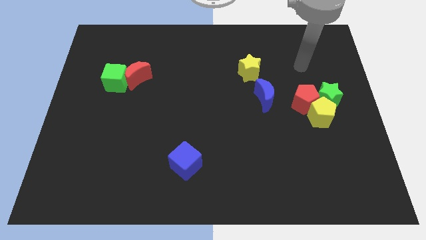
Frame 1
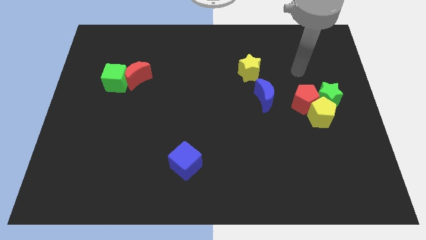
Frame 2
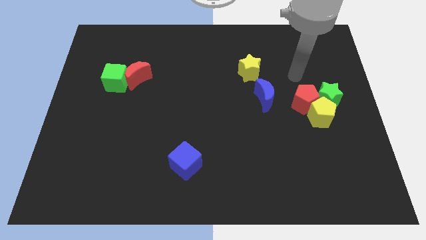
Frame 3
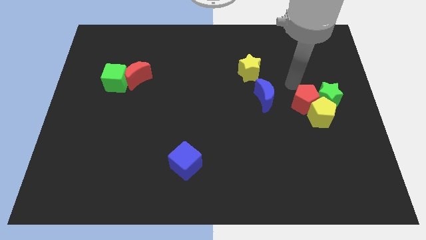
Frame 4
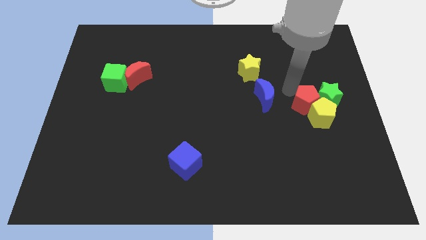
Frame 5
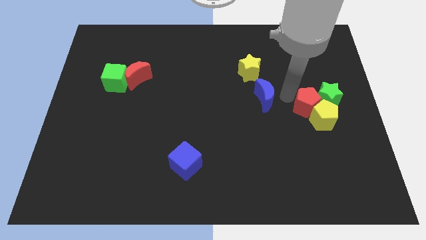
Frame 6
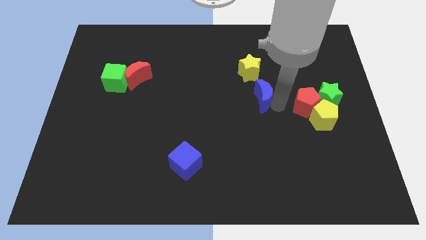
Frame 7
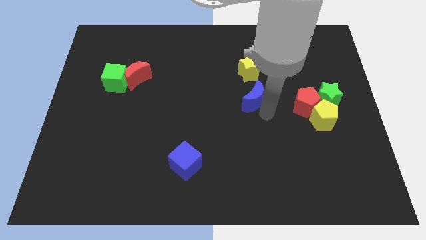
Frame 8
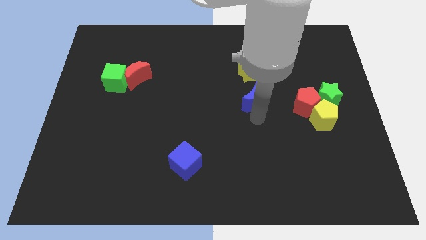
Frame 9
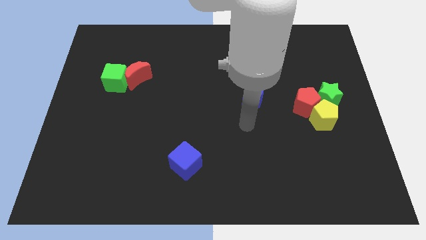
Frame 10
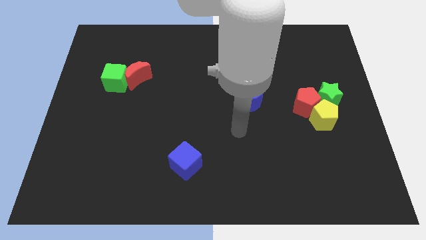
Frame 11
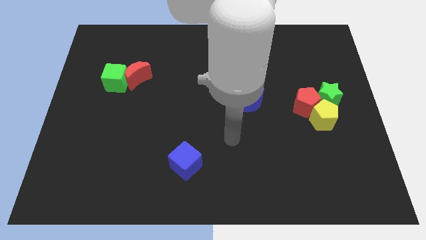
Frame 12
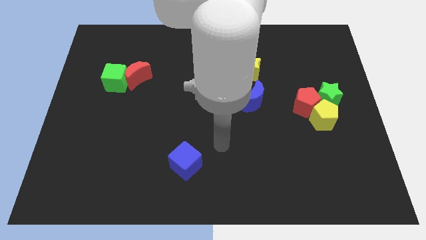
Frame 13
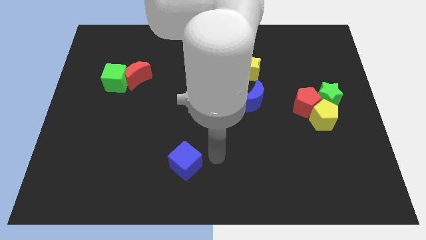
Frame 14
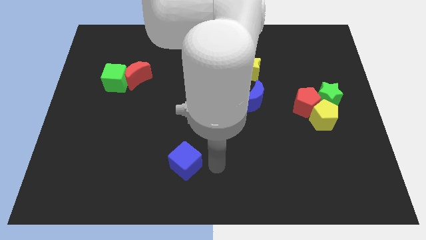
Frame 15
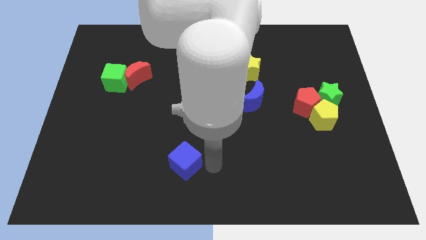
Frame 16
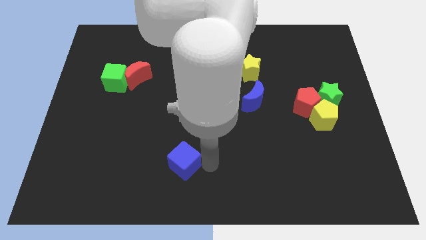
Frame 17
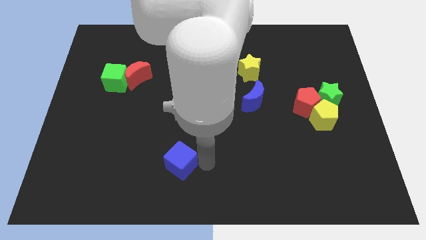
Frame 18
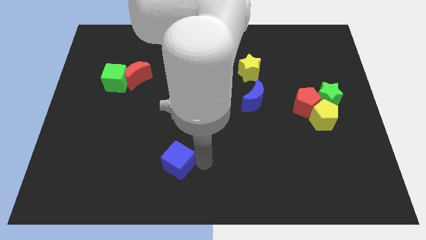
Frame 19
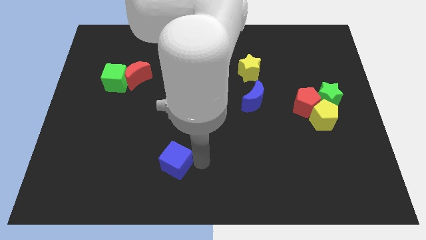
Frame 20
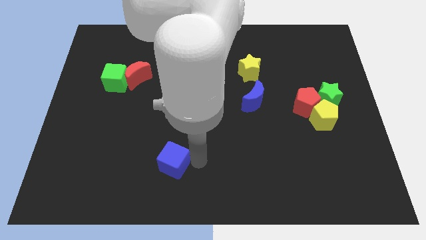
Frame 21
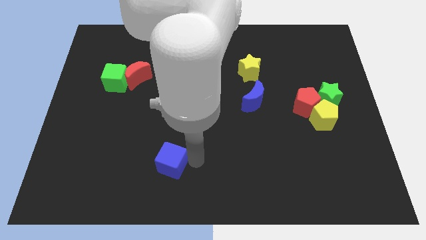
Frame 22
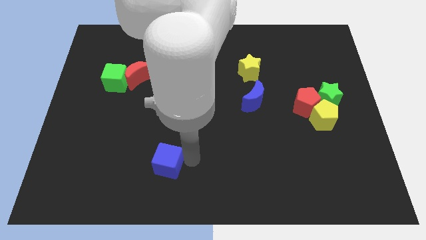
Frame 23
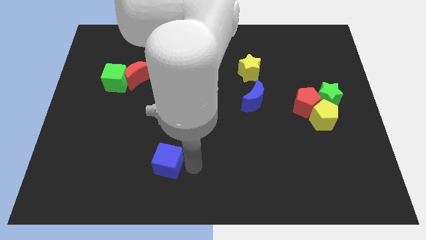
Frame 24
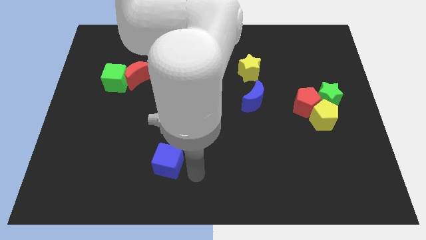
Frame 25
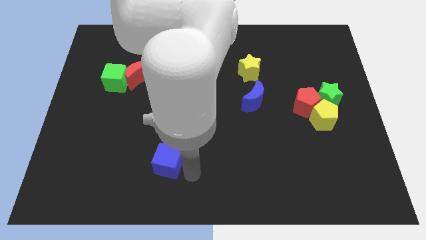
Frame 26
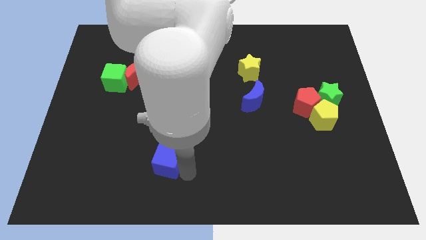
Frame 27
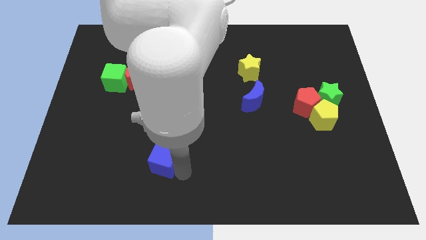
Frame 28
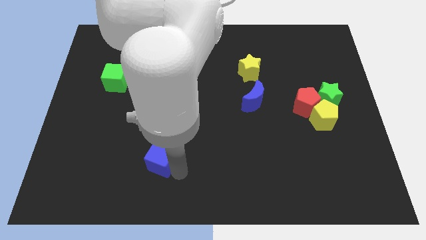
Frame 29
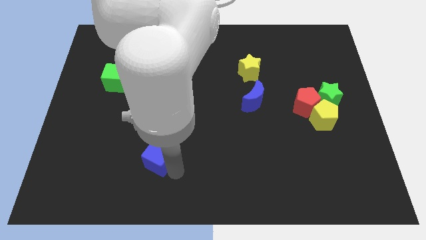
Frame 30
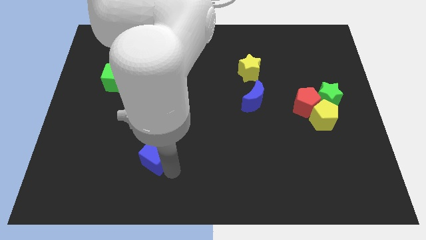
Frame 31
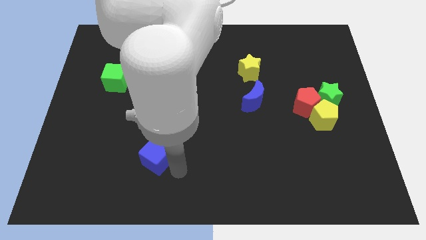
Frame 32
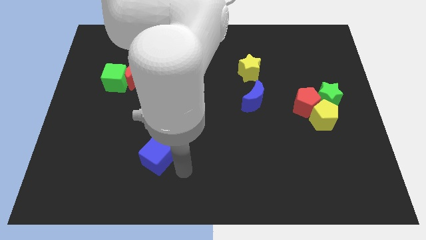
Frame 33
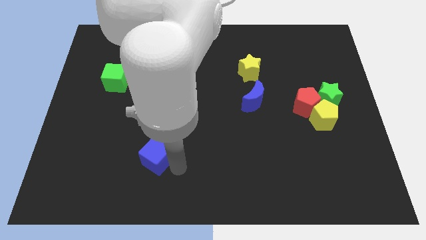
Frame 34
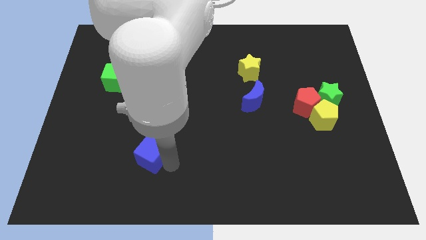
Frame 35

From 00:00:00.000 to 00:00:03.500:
slide the blue cube somewhat to the left

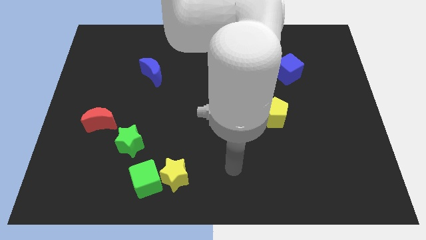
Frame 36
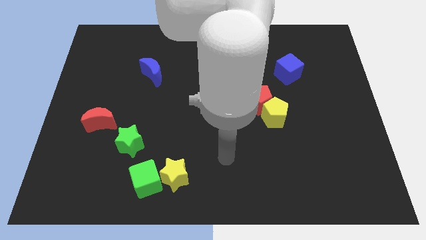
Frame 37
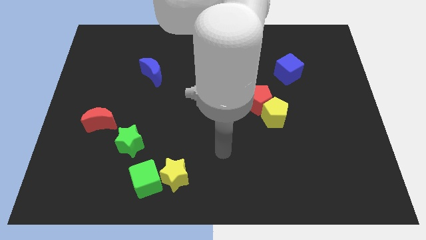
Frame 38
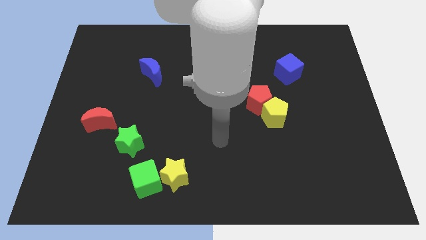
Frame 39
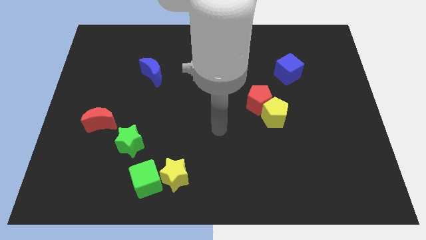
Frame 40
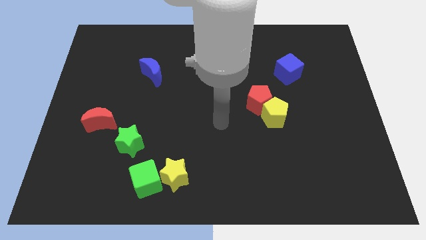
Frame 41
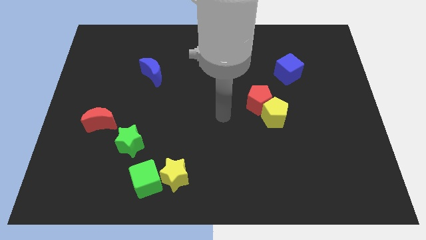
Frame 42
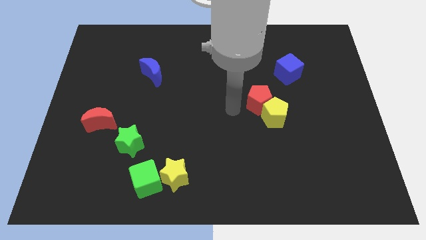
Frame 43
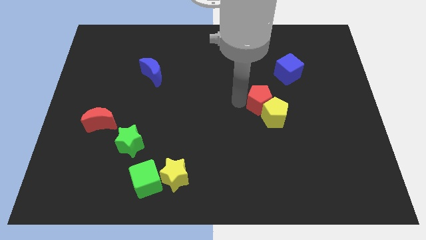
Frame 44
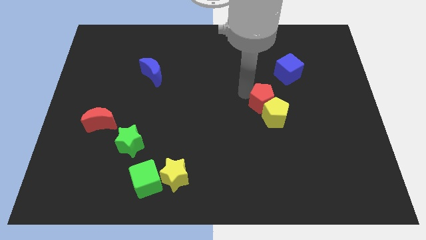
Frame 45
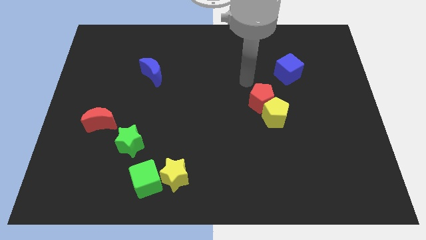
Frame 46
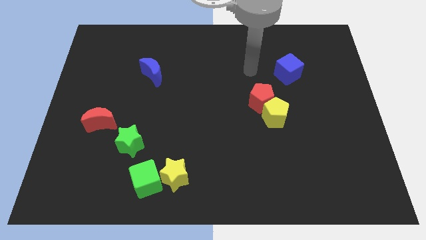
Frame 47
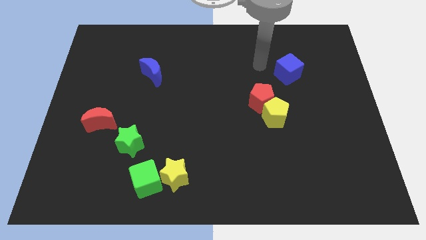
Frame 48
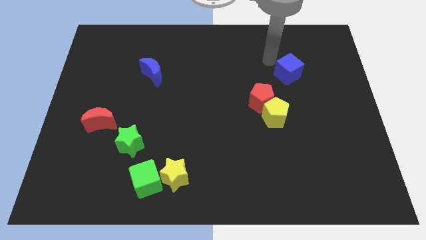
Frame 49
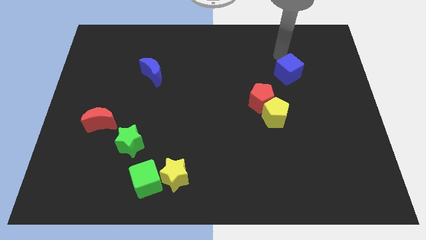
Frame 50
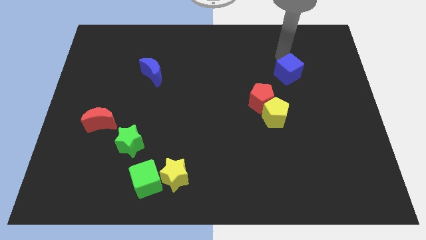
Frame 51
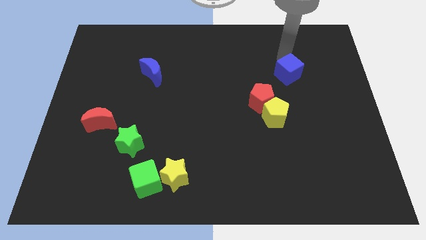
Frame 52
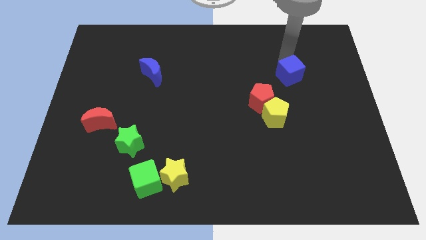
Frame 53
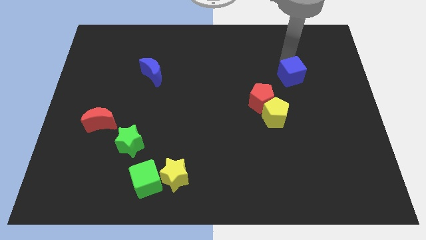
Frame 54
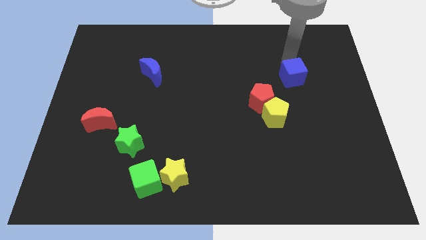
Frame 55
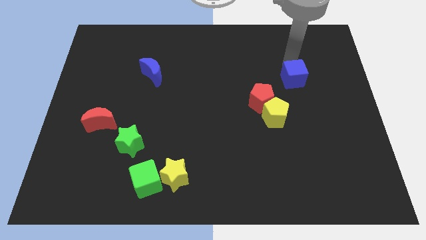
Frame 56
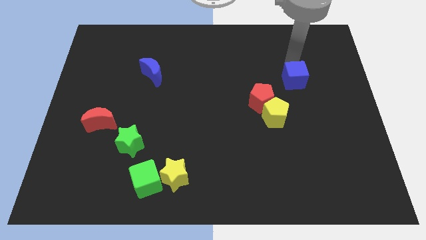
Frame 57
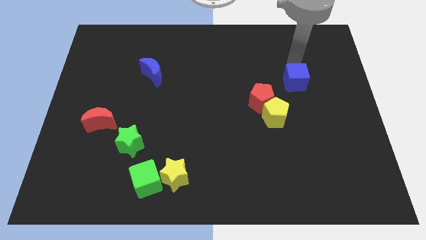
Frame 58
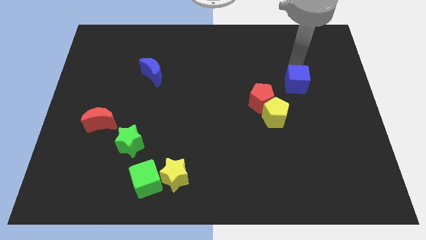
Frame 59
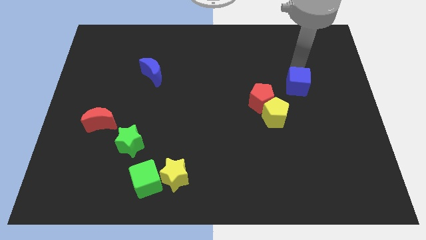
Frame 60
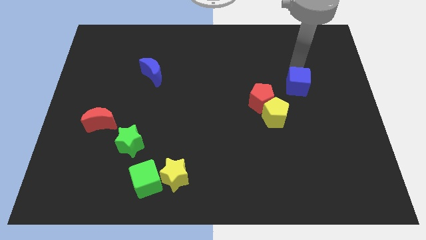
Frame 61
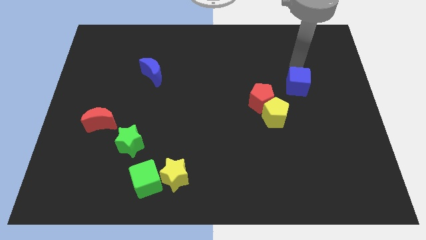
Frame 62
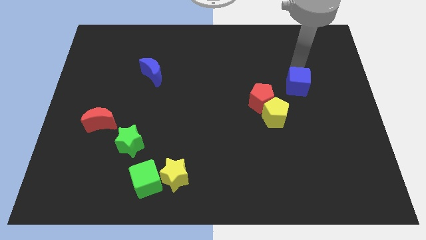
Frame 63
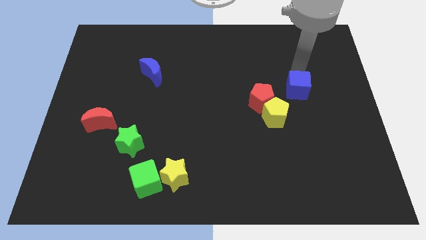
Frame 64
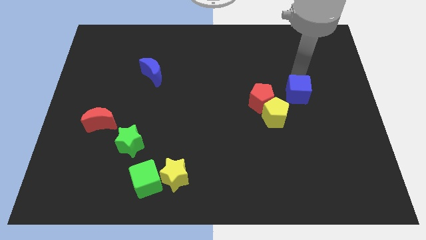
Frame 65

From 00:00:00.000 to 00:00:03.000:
slightly slide the blue cube down

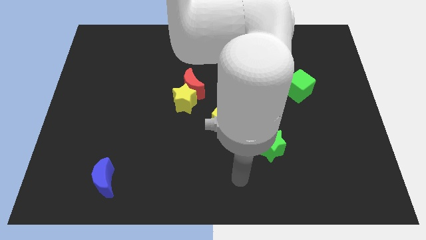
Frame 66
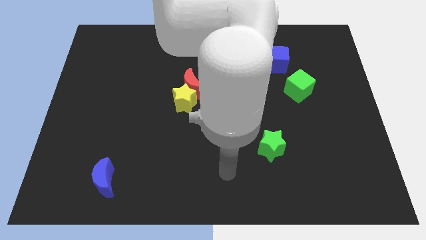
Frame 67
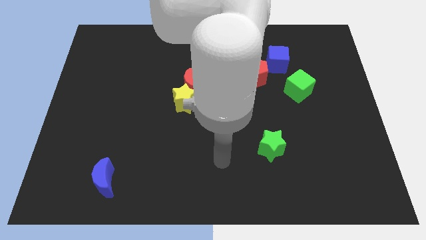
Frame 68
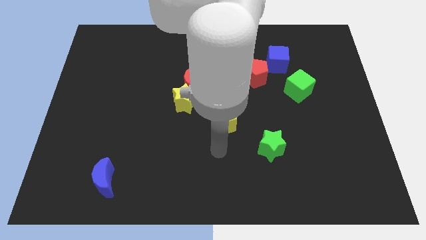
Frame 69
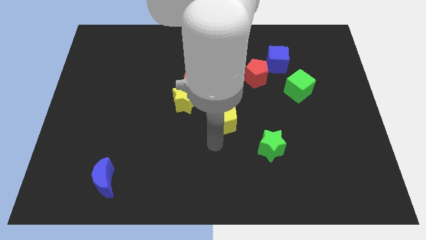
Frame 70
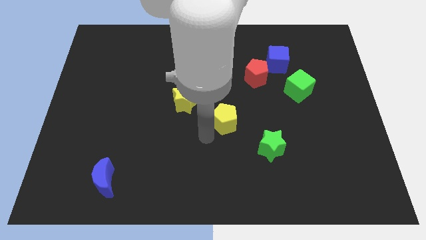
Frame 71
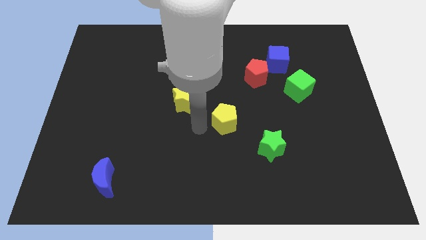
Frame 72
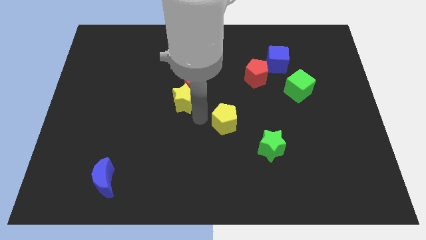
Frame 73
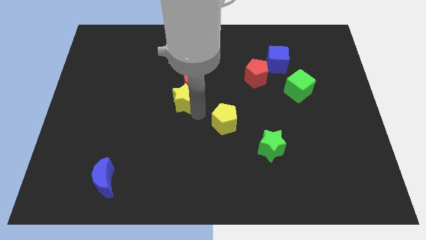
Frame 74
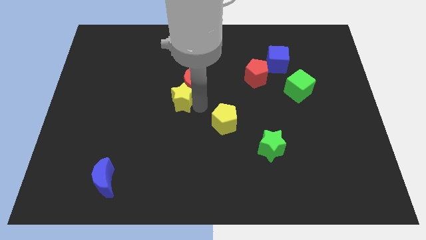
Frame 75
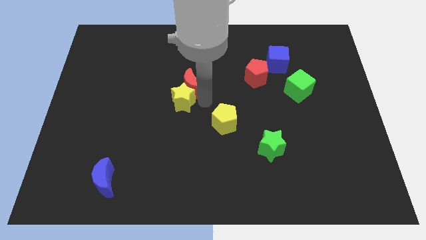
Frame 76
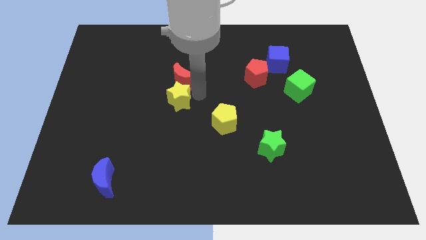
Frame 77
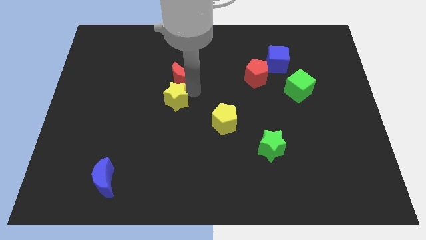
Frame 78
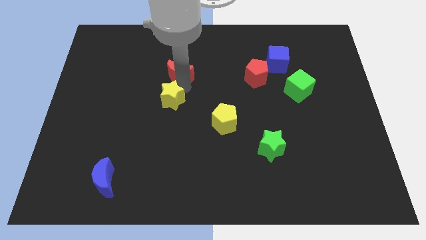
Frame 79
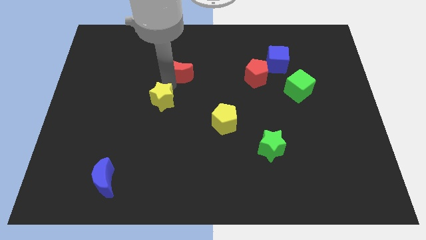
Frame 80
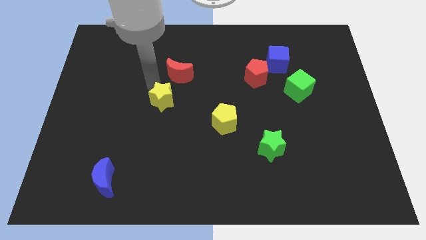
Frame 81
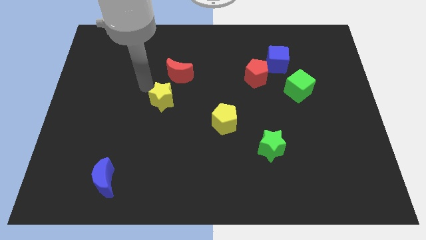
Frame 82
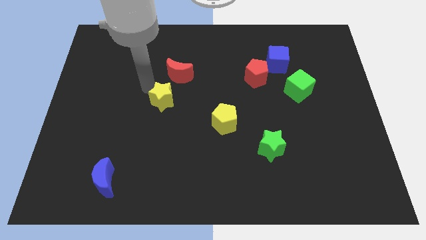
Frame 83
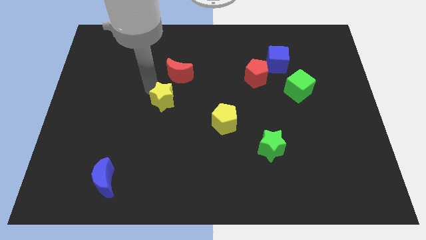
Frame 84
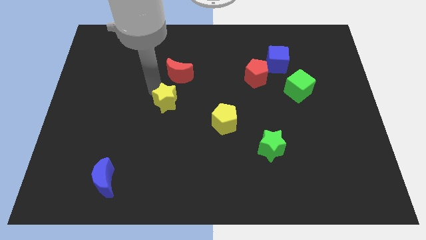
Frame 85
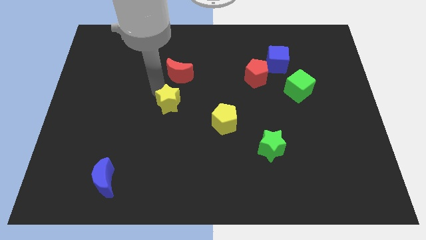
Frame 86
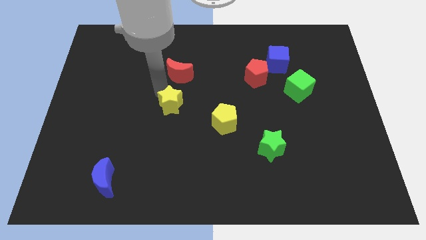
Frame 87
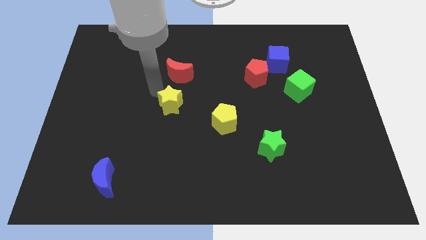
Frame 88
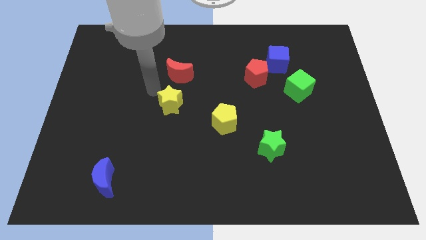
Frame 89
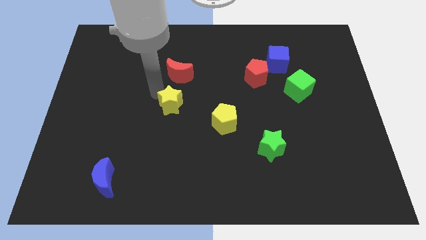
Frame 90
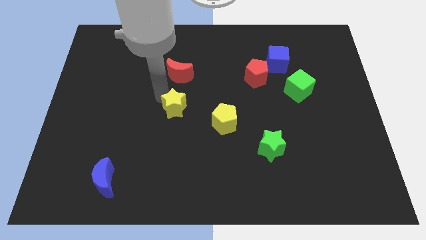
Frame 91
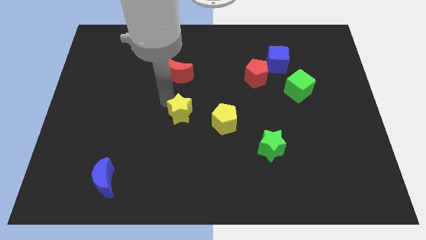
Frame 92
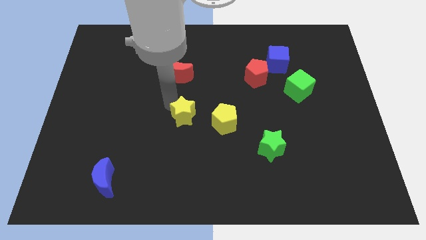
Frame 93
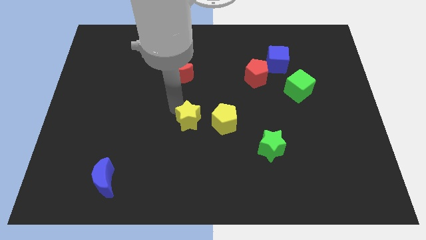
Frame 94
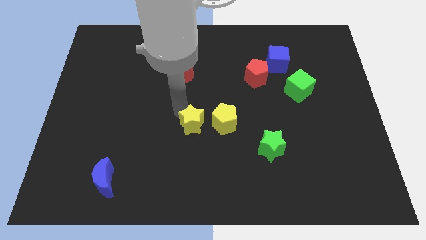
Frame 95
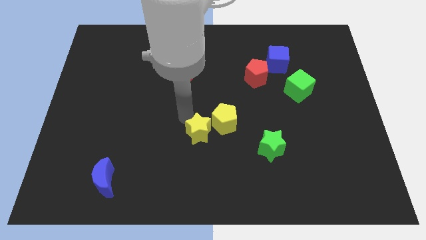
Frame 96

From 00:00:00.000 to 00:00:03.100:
push the yellow star slightly diagonally downwards and to the right
